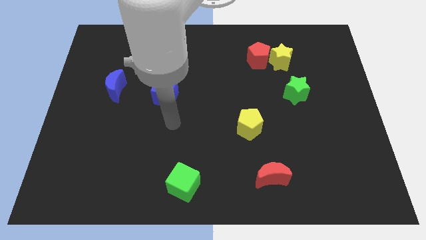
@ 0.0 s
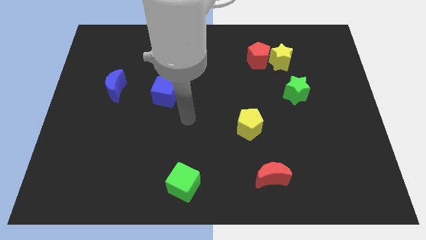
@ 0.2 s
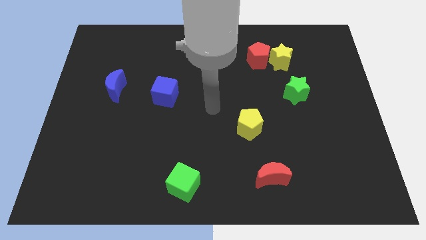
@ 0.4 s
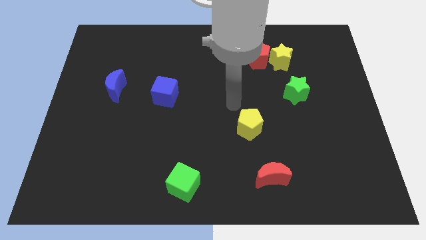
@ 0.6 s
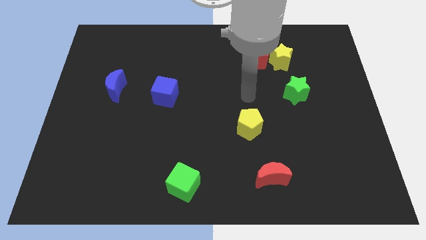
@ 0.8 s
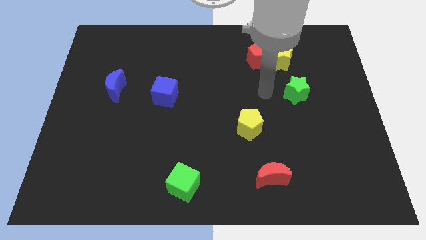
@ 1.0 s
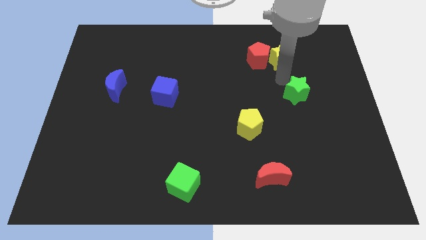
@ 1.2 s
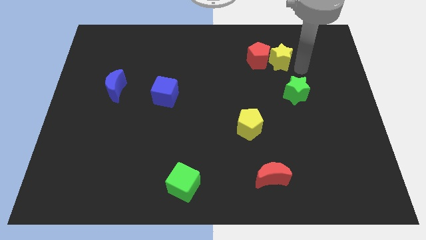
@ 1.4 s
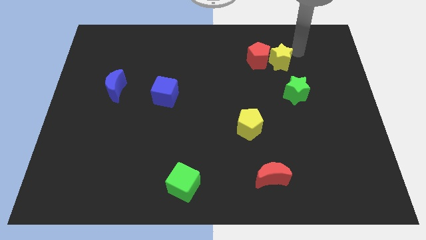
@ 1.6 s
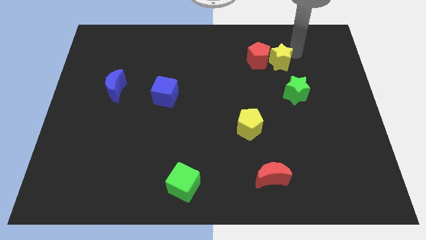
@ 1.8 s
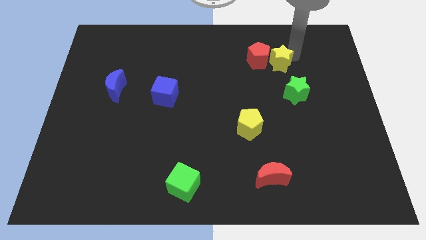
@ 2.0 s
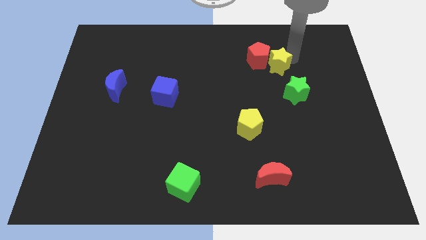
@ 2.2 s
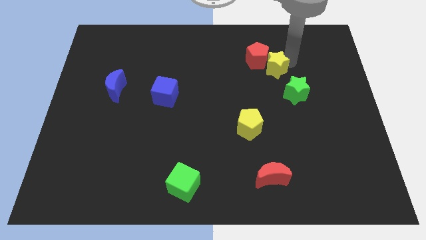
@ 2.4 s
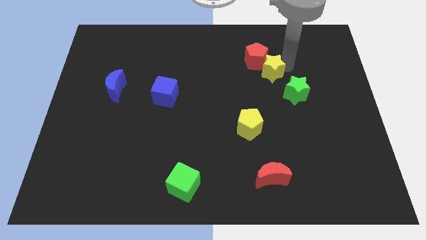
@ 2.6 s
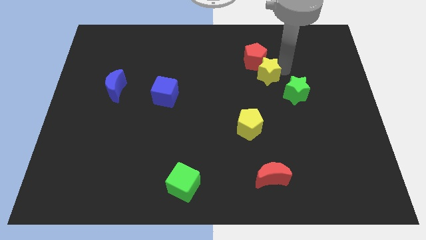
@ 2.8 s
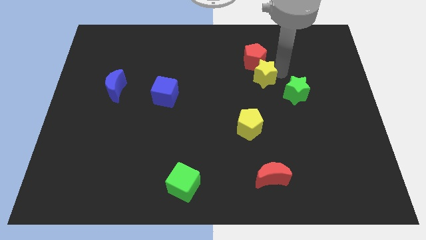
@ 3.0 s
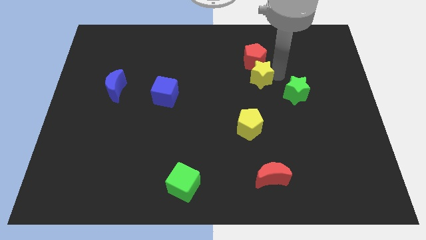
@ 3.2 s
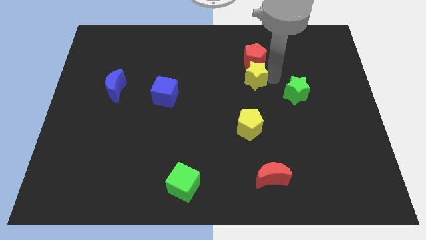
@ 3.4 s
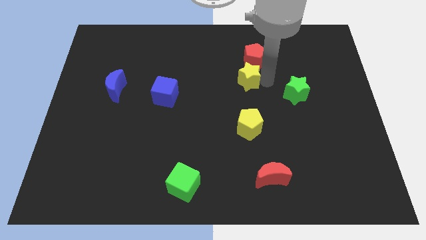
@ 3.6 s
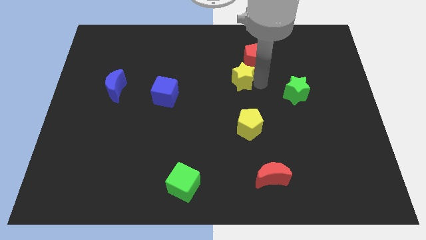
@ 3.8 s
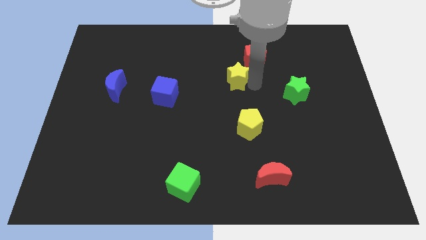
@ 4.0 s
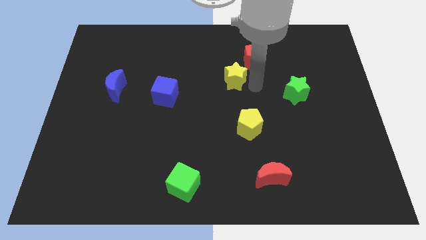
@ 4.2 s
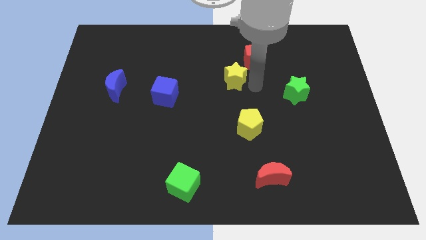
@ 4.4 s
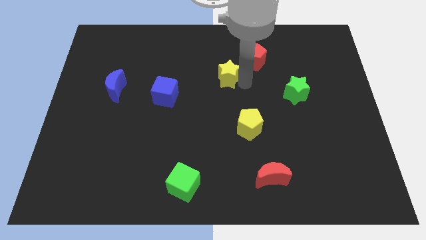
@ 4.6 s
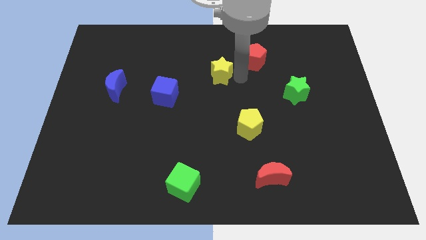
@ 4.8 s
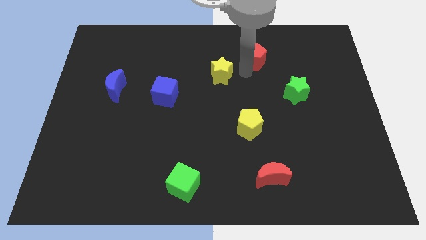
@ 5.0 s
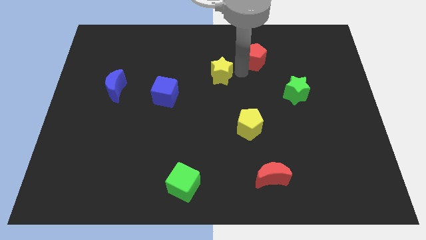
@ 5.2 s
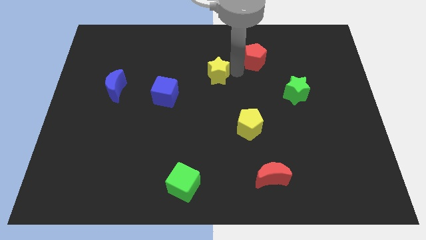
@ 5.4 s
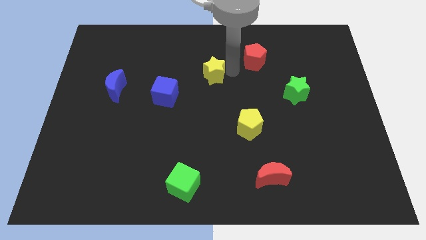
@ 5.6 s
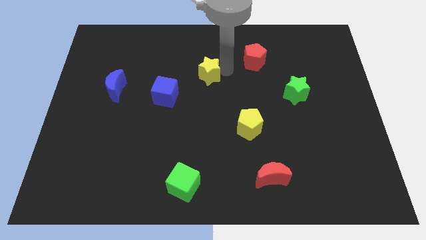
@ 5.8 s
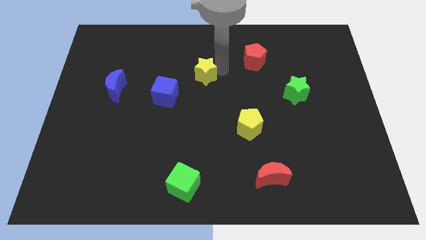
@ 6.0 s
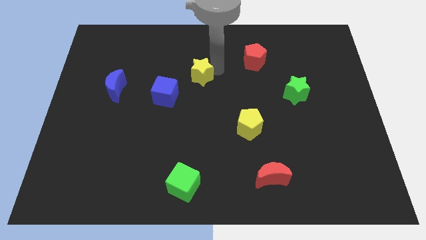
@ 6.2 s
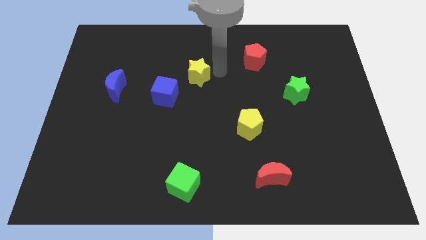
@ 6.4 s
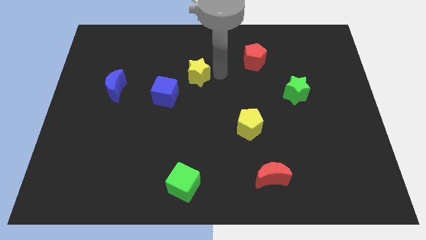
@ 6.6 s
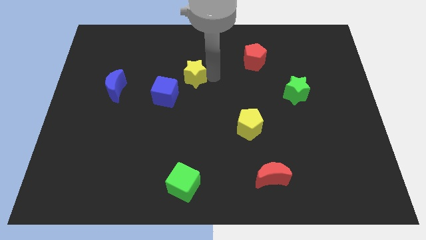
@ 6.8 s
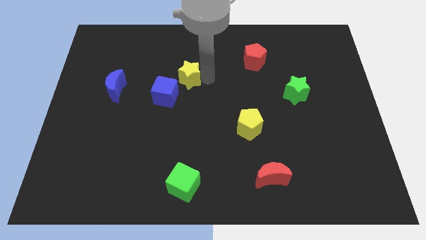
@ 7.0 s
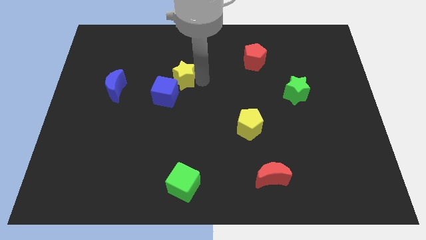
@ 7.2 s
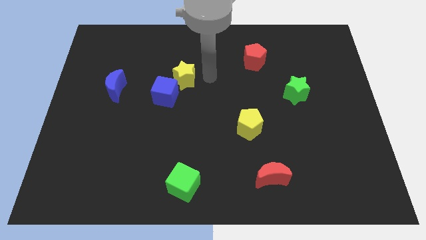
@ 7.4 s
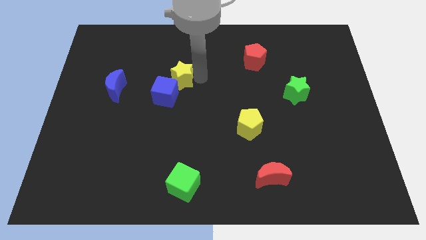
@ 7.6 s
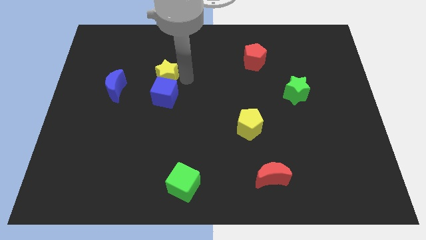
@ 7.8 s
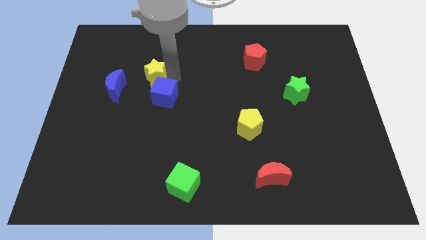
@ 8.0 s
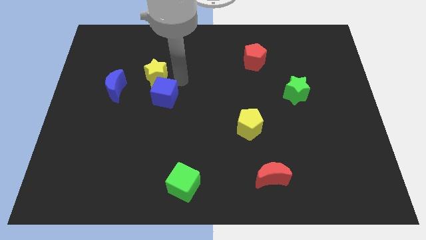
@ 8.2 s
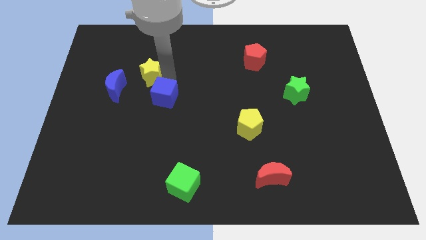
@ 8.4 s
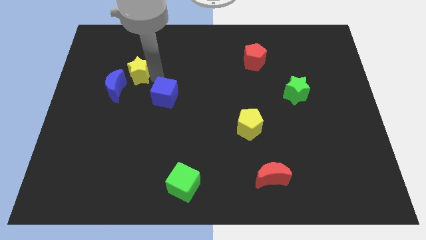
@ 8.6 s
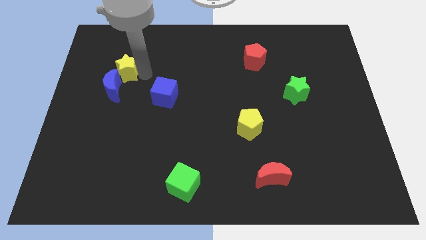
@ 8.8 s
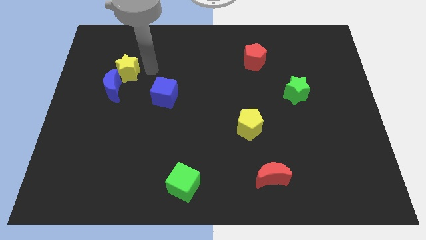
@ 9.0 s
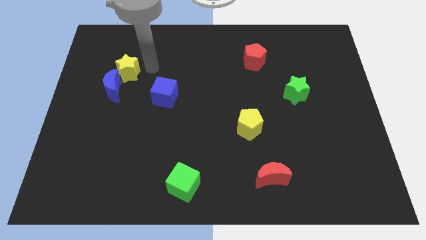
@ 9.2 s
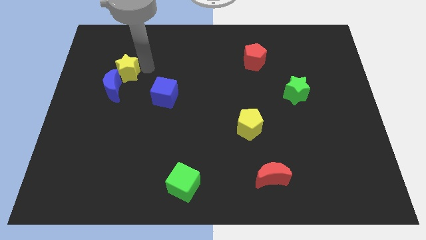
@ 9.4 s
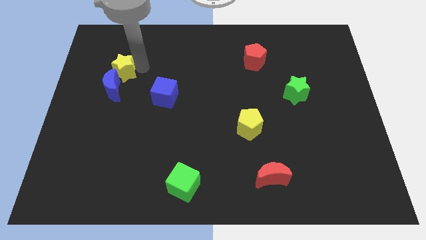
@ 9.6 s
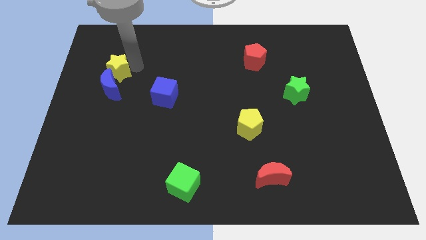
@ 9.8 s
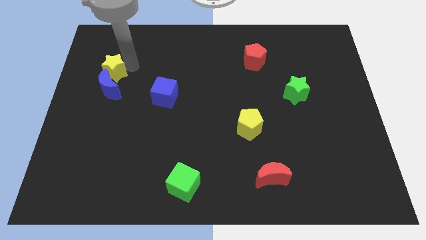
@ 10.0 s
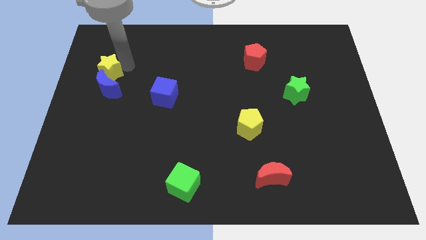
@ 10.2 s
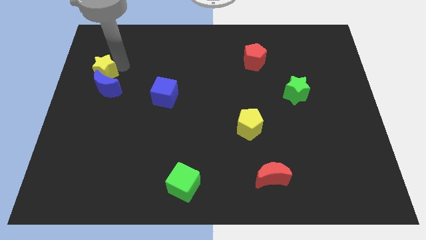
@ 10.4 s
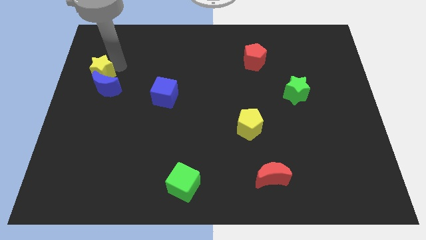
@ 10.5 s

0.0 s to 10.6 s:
slide the yellow star to the left side of the board

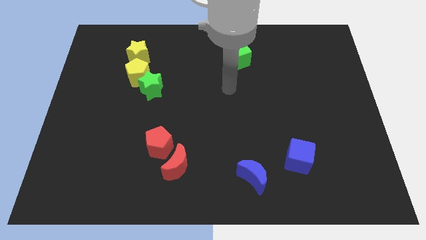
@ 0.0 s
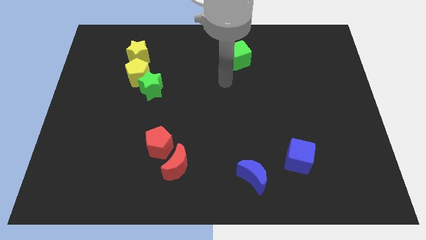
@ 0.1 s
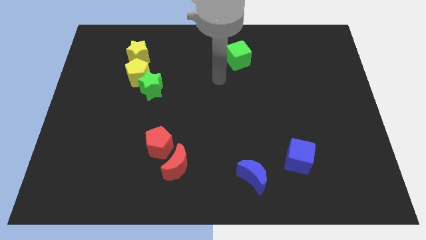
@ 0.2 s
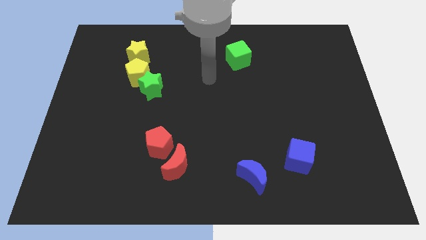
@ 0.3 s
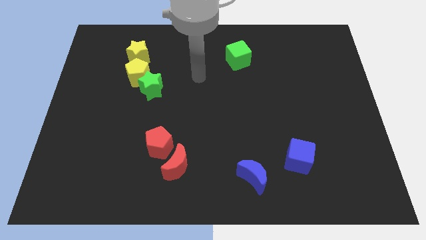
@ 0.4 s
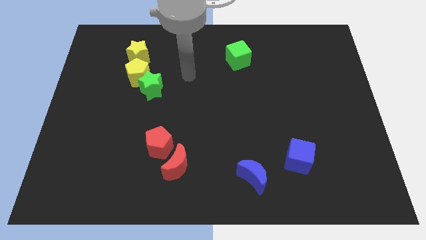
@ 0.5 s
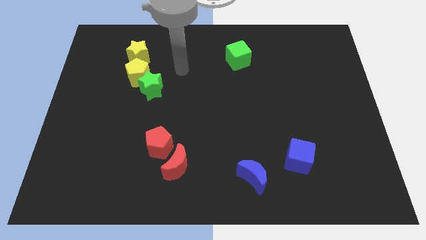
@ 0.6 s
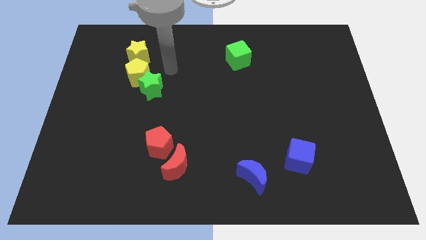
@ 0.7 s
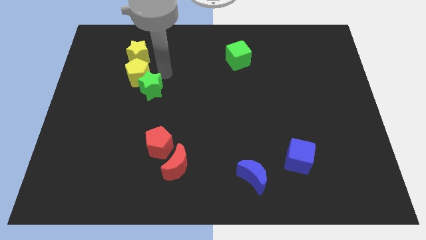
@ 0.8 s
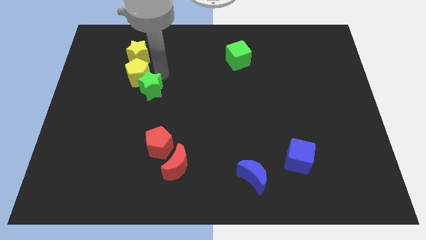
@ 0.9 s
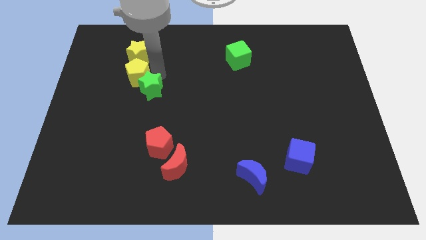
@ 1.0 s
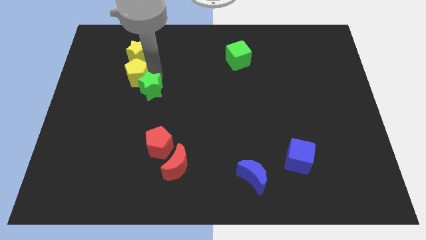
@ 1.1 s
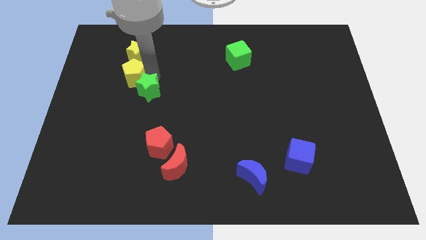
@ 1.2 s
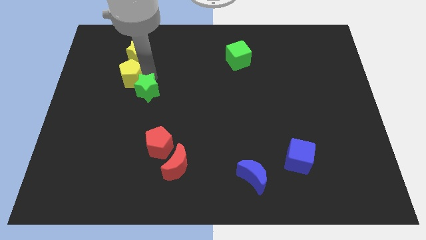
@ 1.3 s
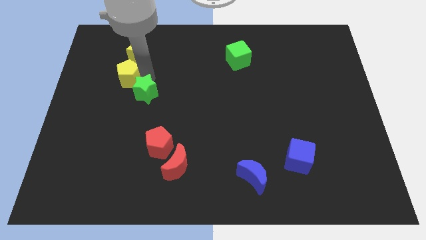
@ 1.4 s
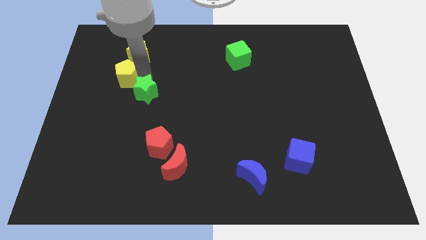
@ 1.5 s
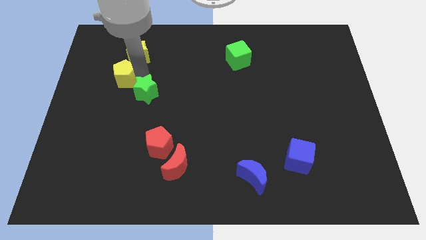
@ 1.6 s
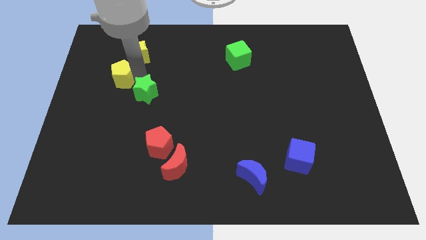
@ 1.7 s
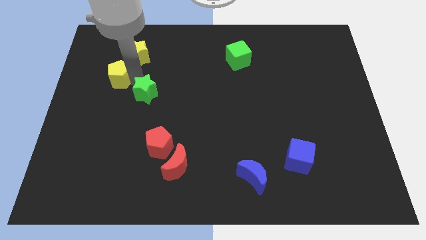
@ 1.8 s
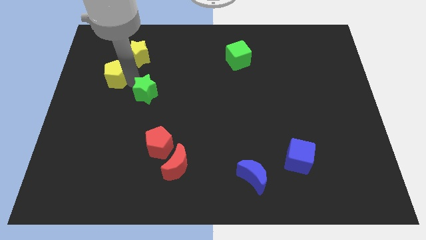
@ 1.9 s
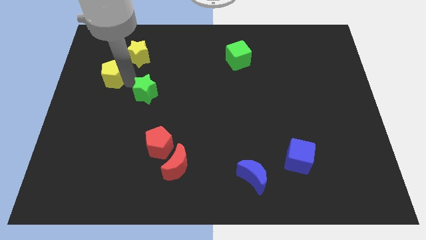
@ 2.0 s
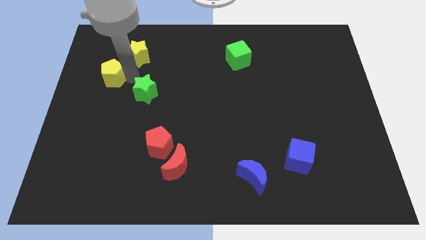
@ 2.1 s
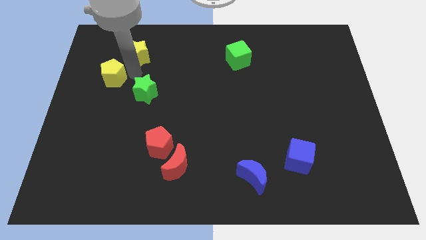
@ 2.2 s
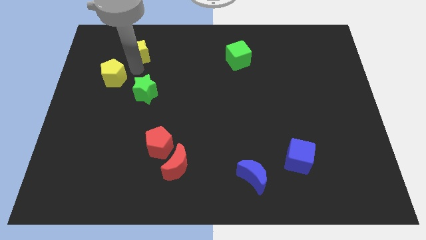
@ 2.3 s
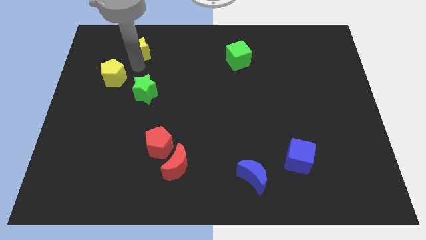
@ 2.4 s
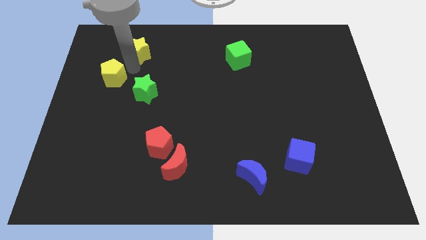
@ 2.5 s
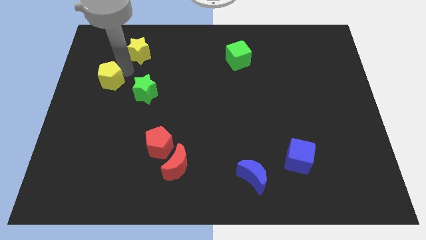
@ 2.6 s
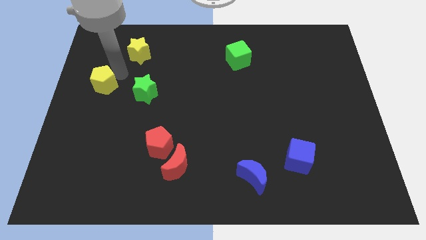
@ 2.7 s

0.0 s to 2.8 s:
put the yellow pentagon to the left side of the board
